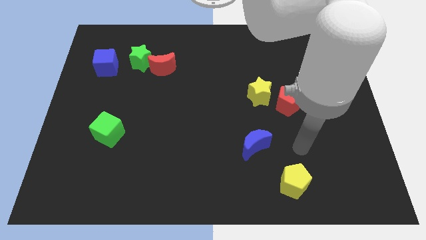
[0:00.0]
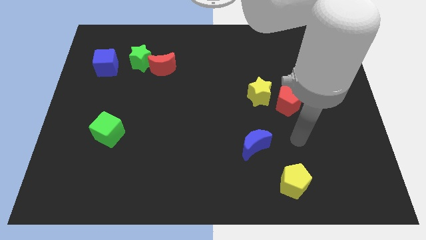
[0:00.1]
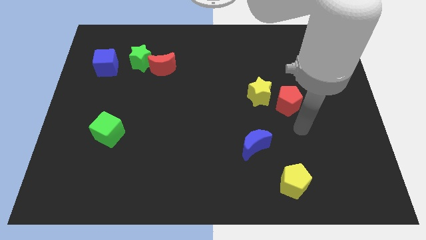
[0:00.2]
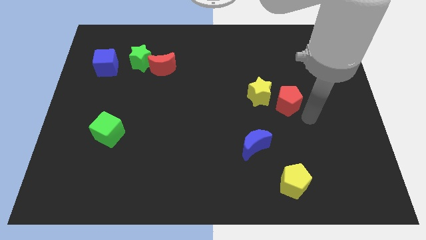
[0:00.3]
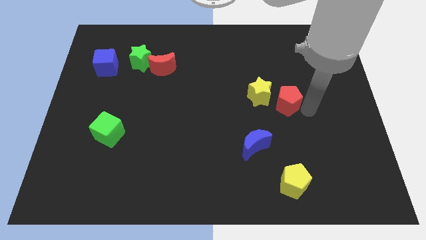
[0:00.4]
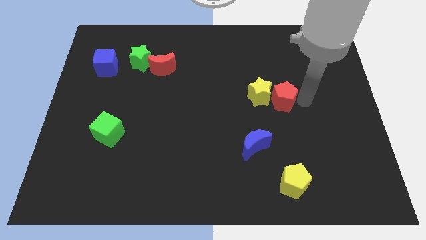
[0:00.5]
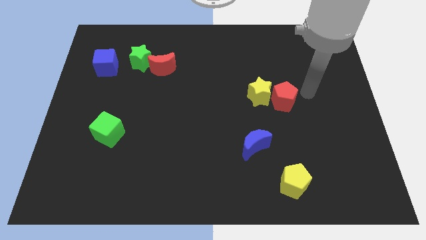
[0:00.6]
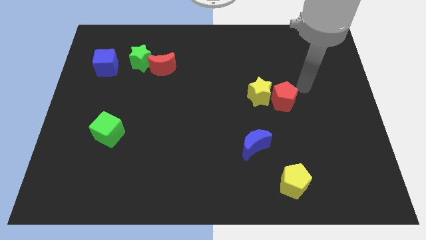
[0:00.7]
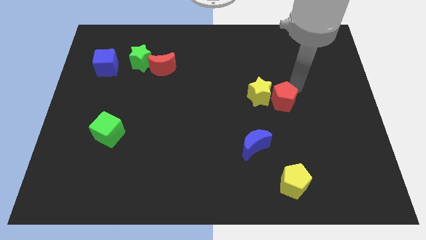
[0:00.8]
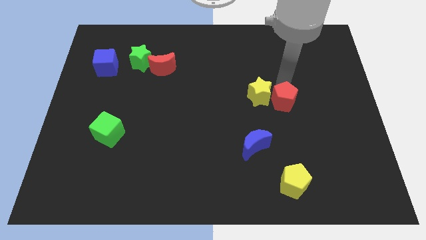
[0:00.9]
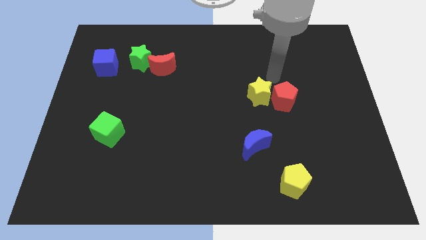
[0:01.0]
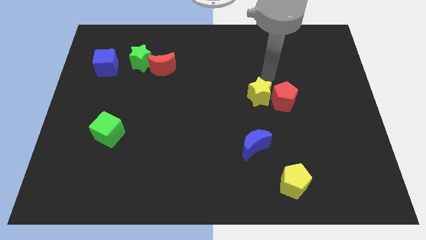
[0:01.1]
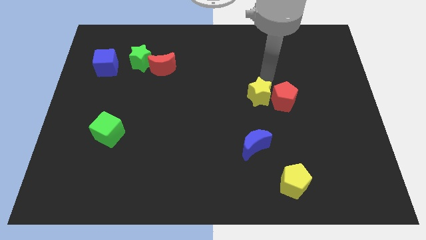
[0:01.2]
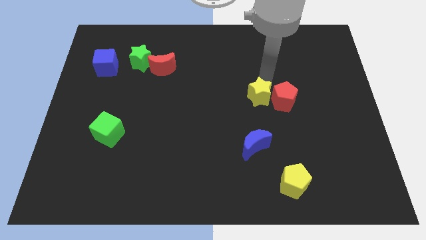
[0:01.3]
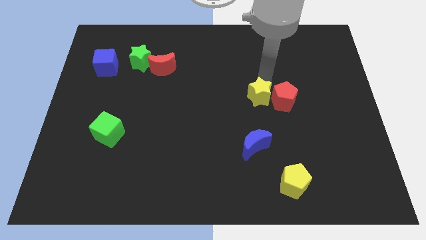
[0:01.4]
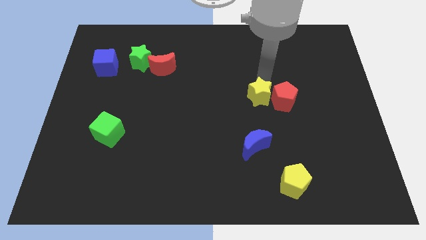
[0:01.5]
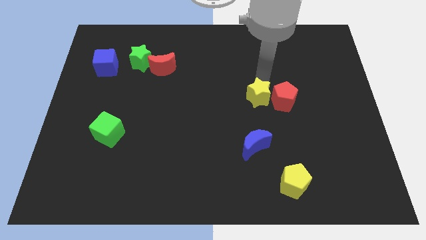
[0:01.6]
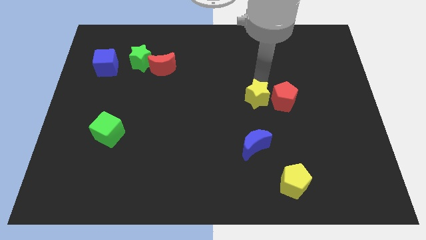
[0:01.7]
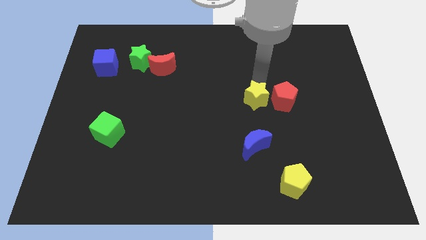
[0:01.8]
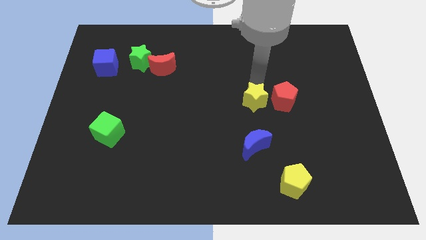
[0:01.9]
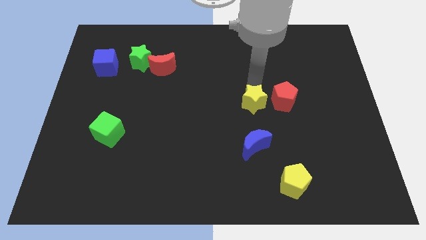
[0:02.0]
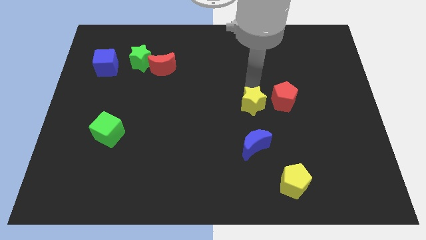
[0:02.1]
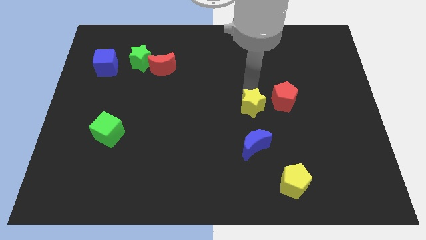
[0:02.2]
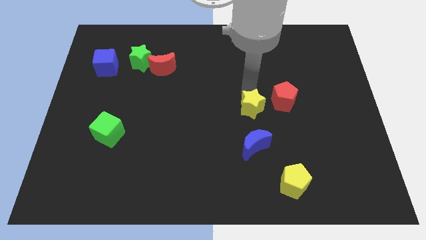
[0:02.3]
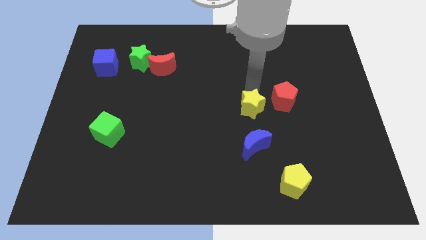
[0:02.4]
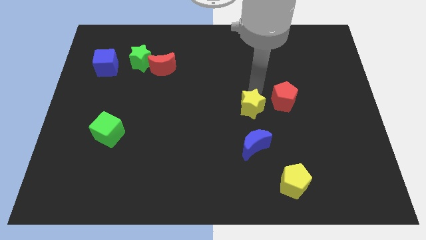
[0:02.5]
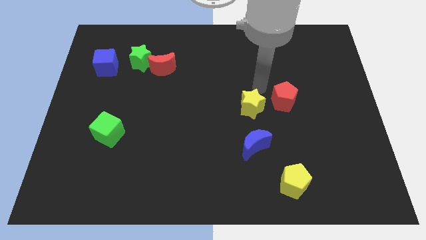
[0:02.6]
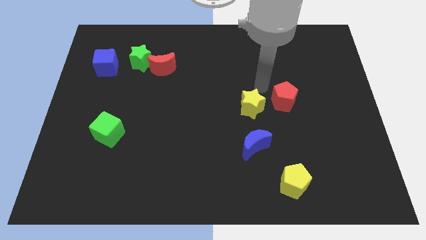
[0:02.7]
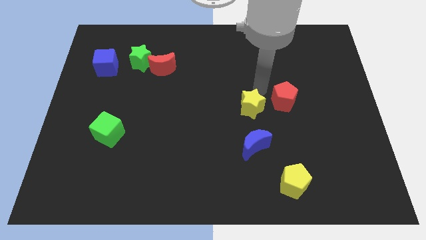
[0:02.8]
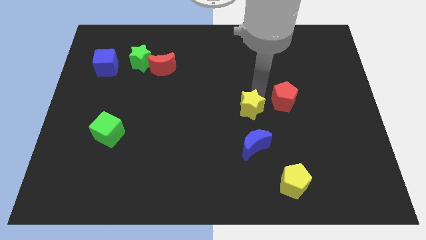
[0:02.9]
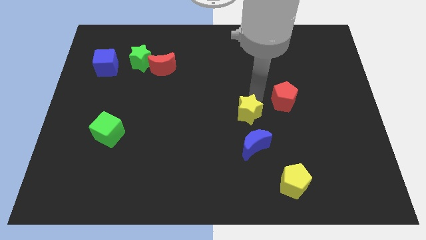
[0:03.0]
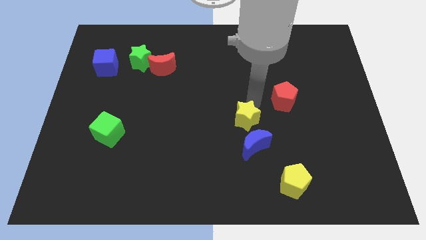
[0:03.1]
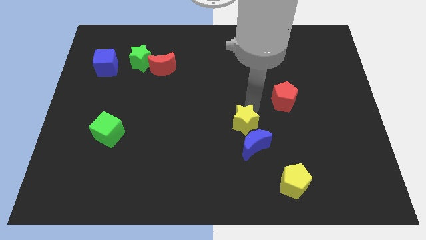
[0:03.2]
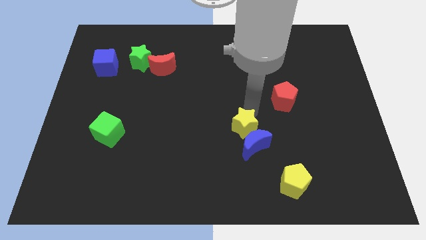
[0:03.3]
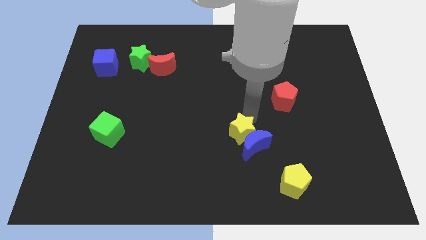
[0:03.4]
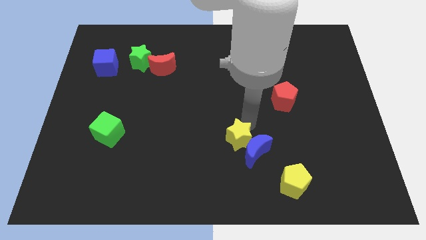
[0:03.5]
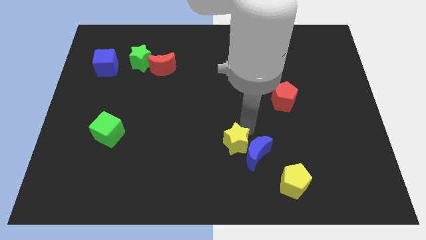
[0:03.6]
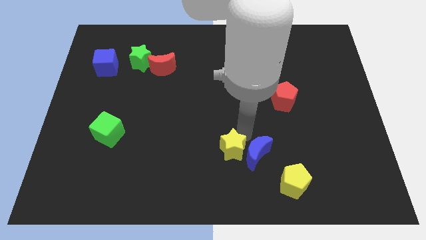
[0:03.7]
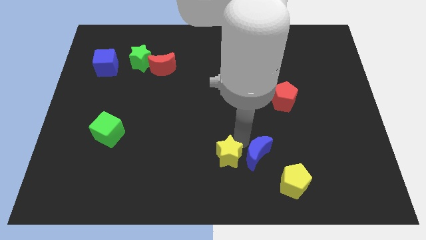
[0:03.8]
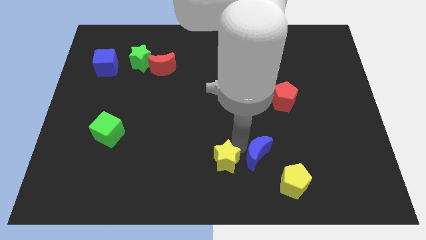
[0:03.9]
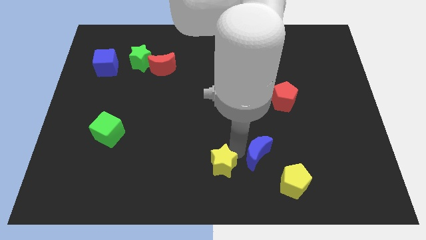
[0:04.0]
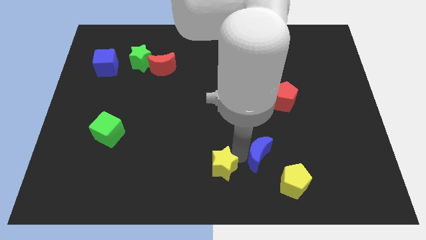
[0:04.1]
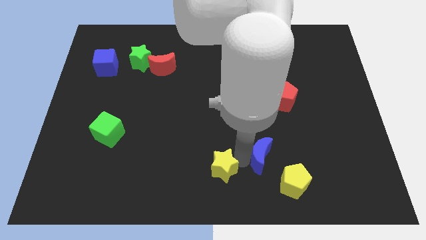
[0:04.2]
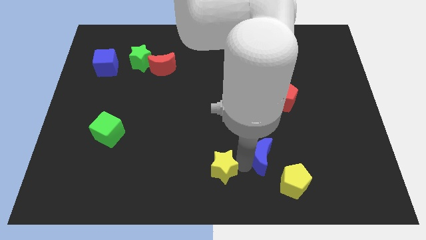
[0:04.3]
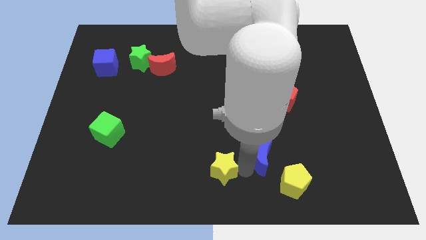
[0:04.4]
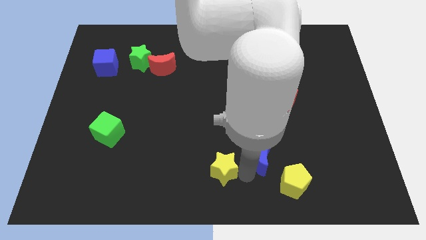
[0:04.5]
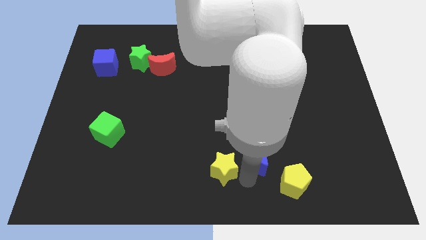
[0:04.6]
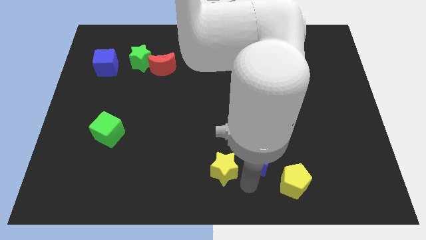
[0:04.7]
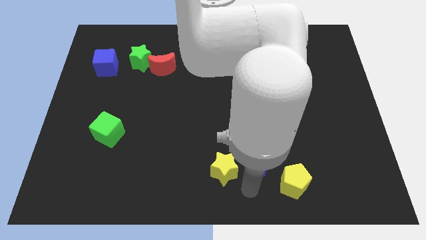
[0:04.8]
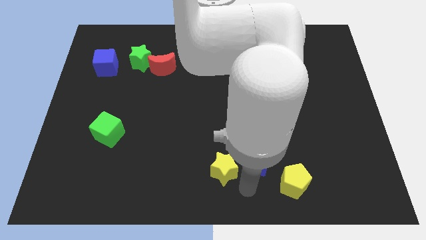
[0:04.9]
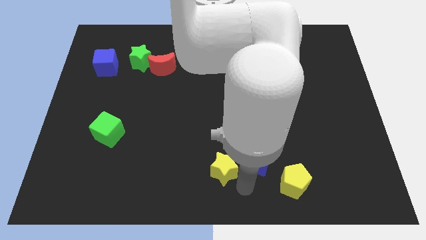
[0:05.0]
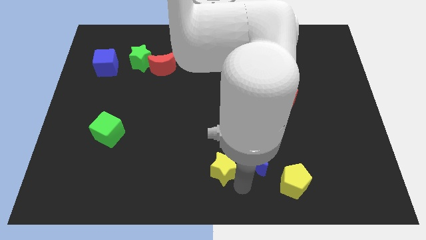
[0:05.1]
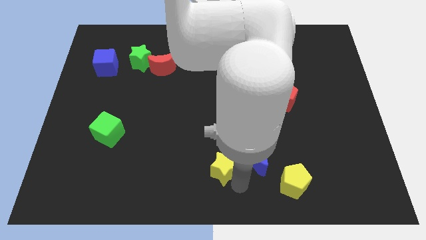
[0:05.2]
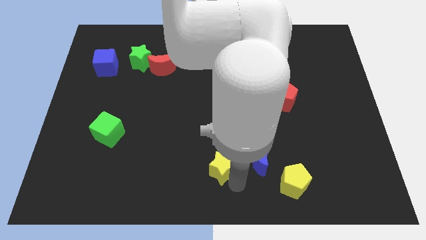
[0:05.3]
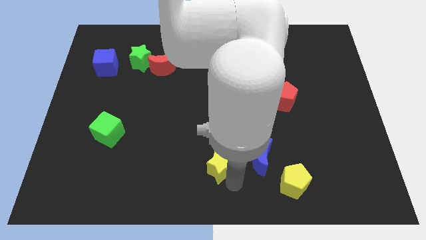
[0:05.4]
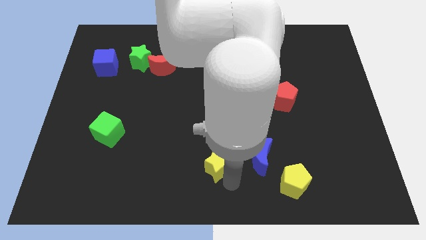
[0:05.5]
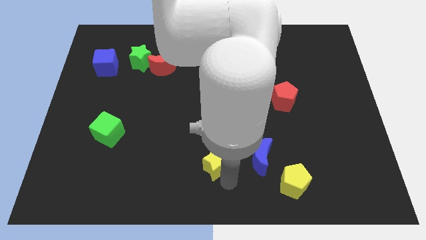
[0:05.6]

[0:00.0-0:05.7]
slide the yellow star diagonally down and left

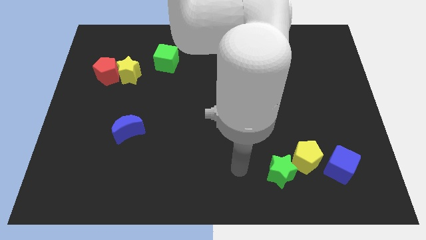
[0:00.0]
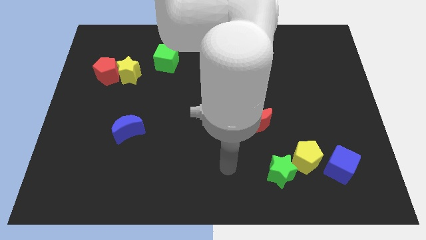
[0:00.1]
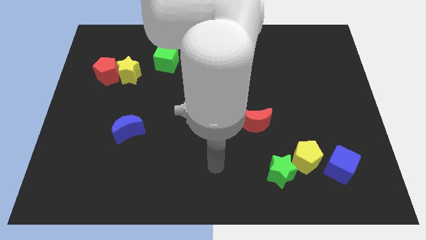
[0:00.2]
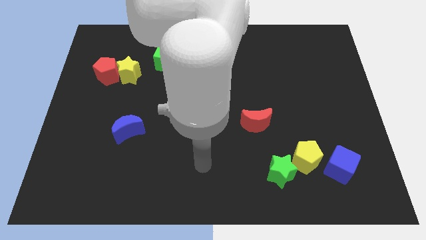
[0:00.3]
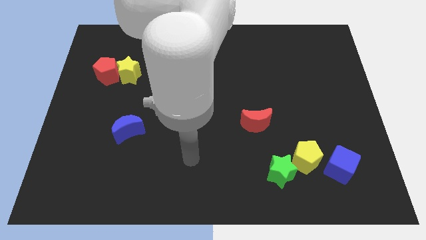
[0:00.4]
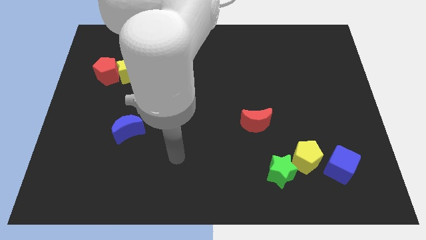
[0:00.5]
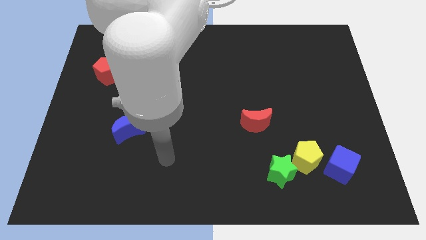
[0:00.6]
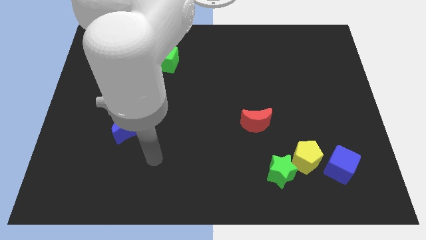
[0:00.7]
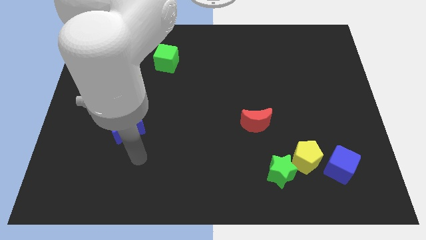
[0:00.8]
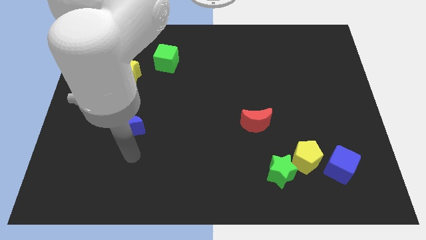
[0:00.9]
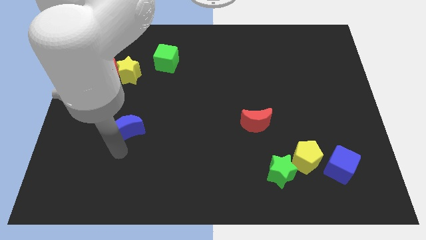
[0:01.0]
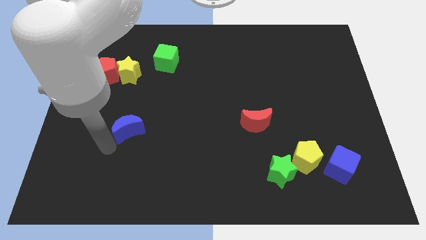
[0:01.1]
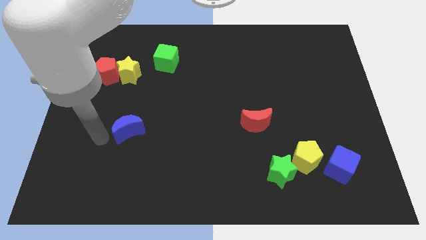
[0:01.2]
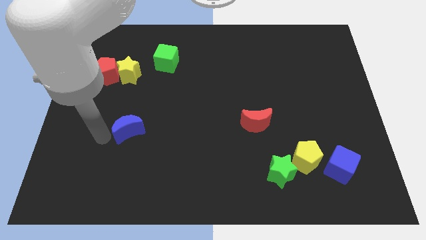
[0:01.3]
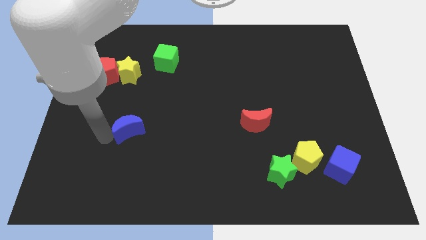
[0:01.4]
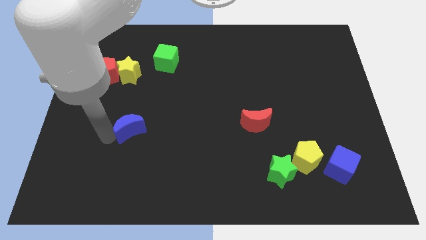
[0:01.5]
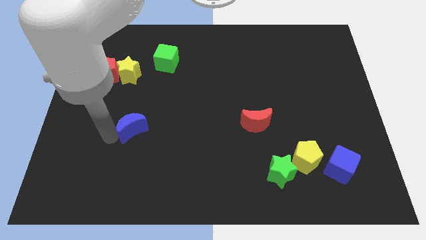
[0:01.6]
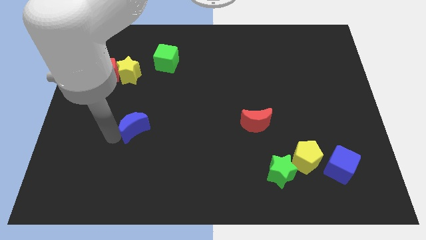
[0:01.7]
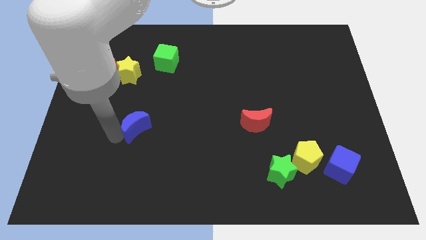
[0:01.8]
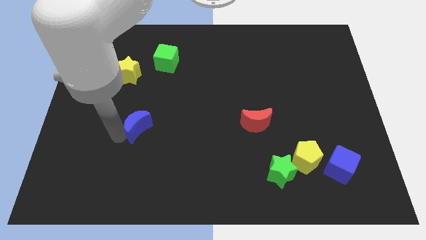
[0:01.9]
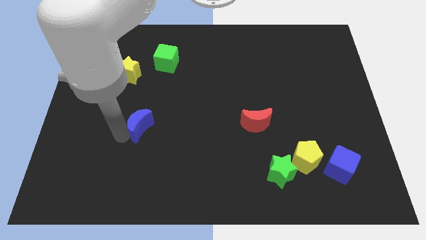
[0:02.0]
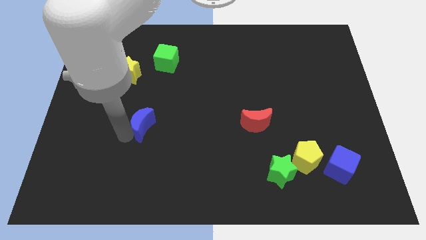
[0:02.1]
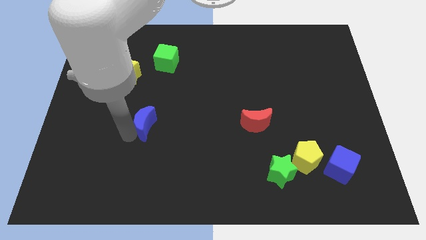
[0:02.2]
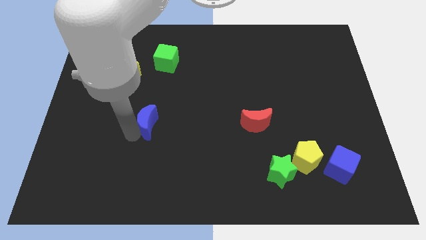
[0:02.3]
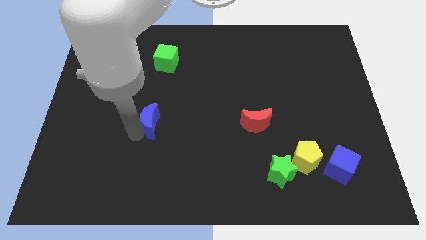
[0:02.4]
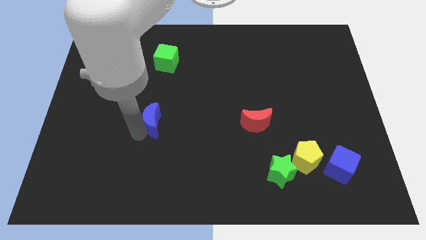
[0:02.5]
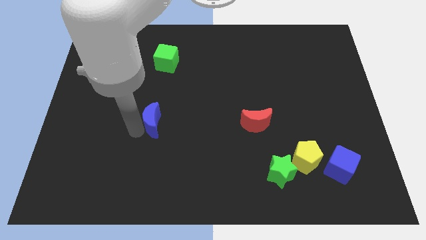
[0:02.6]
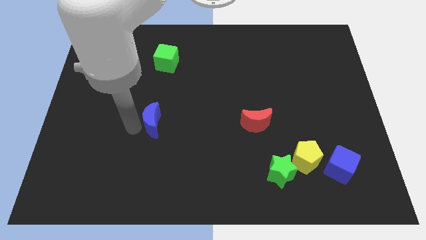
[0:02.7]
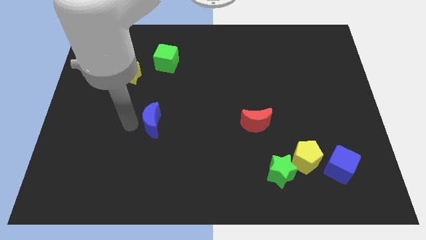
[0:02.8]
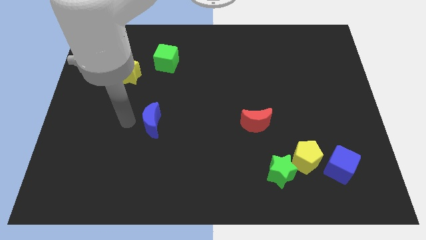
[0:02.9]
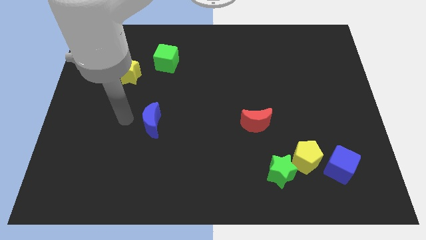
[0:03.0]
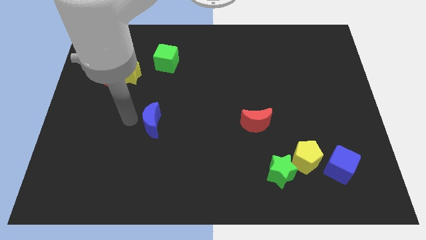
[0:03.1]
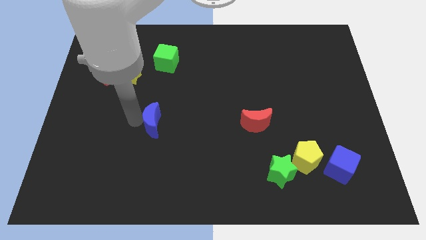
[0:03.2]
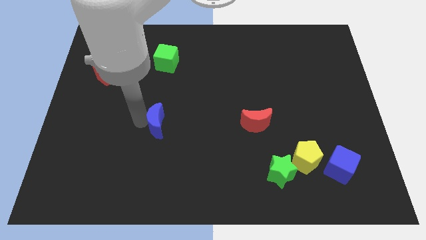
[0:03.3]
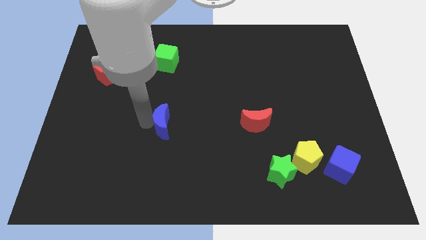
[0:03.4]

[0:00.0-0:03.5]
slide the blue moon a little bit right
